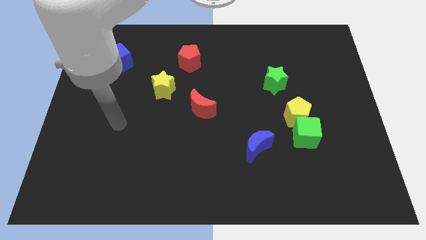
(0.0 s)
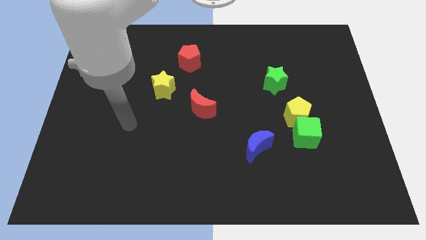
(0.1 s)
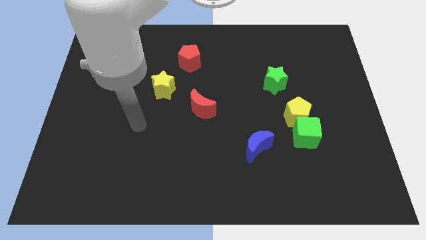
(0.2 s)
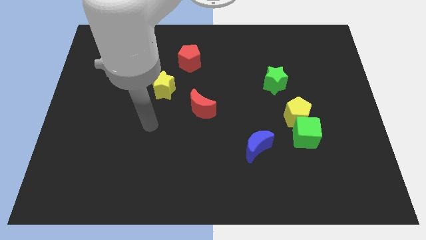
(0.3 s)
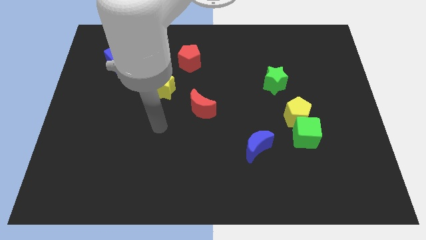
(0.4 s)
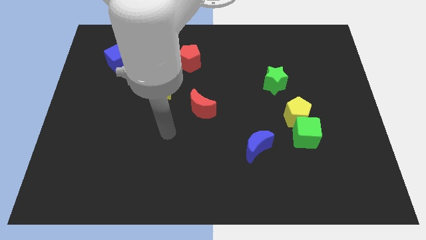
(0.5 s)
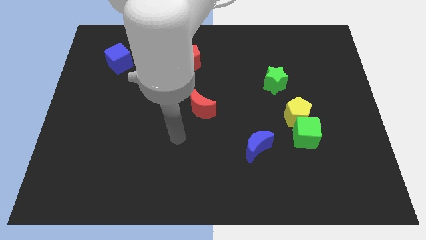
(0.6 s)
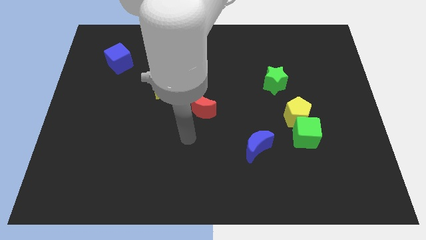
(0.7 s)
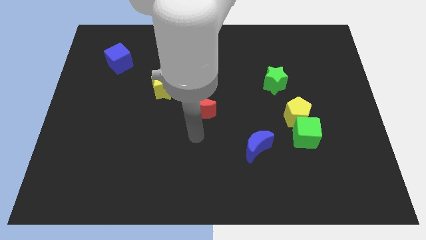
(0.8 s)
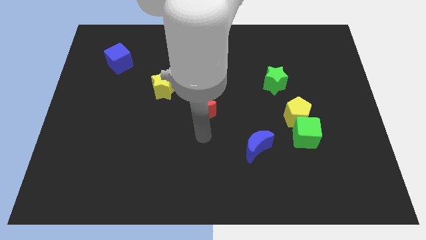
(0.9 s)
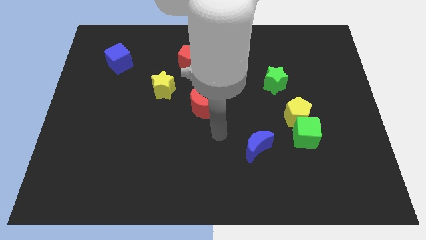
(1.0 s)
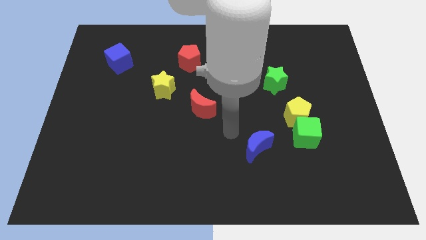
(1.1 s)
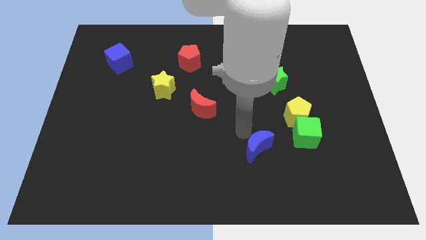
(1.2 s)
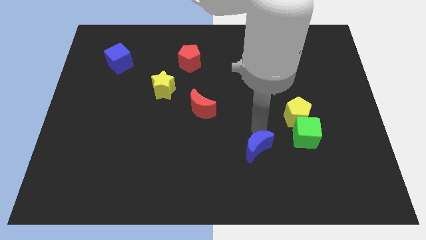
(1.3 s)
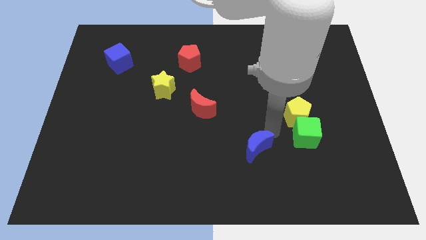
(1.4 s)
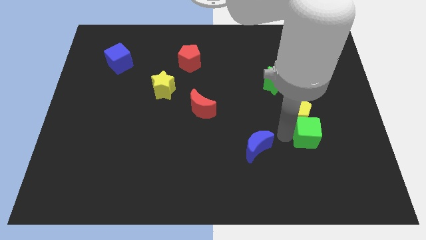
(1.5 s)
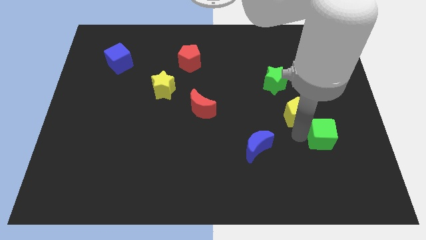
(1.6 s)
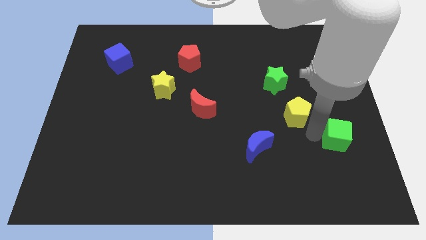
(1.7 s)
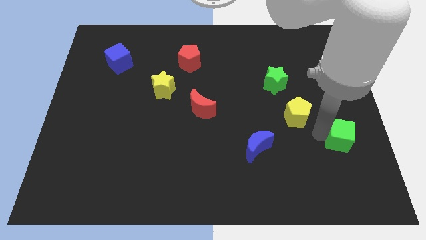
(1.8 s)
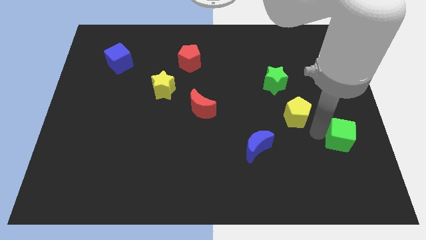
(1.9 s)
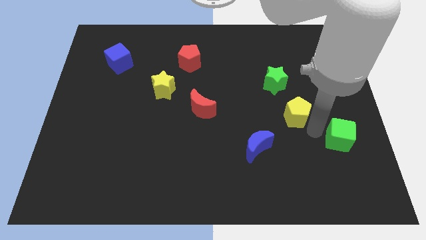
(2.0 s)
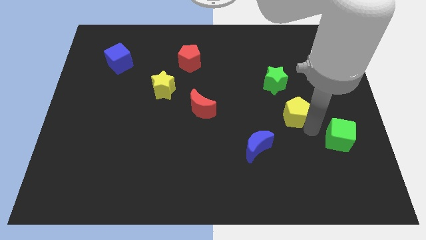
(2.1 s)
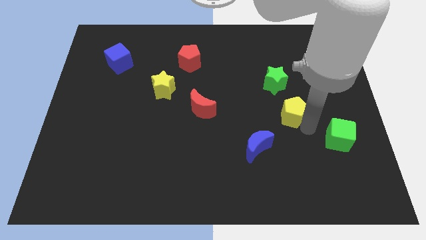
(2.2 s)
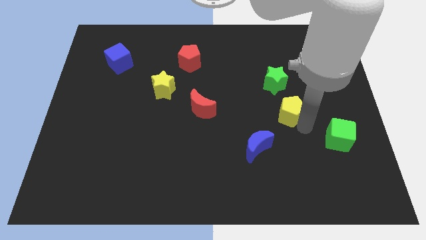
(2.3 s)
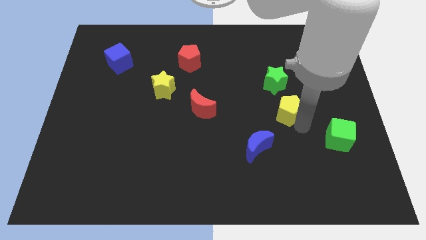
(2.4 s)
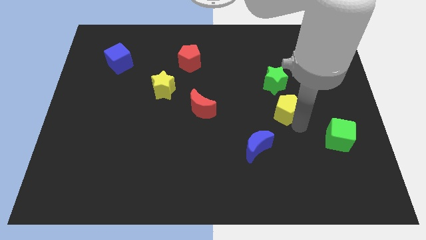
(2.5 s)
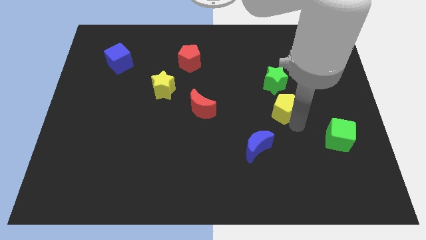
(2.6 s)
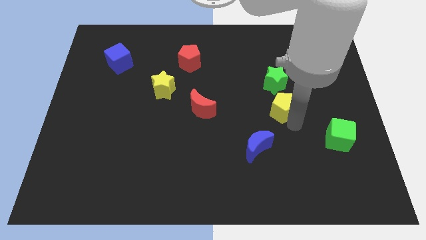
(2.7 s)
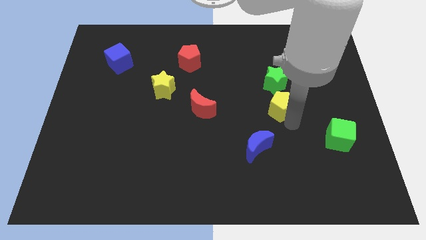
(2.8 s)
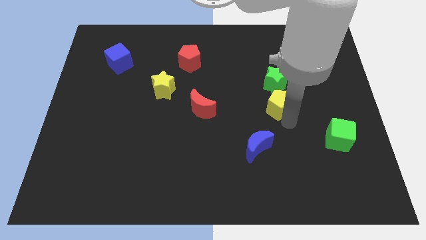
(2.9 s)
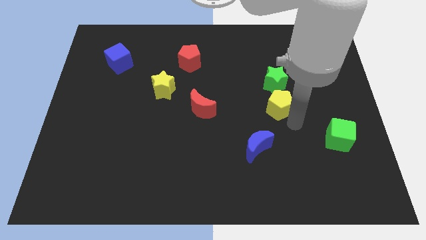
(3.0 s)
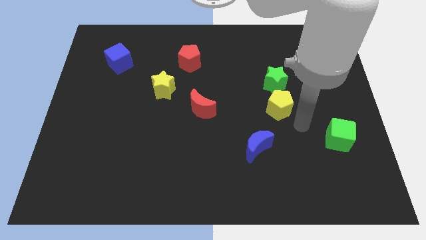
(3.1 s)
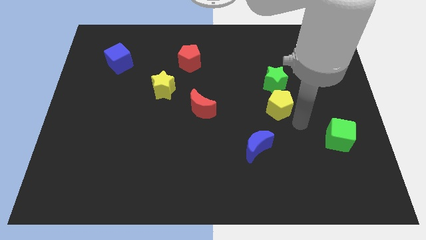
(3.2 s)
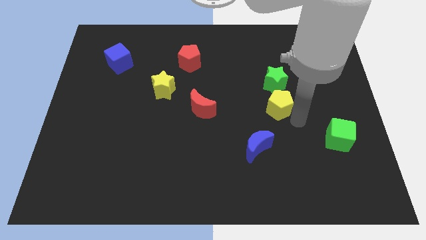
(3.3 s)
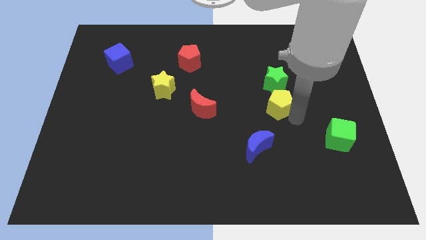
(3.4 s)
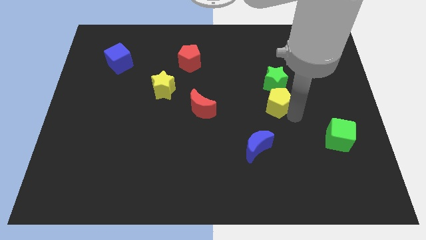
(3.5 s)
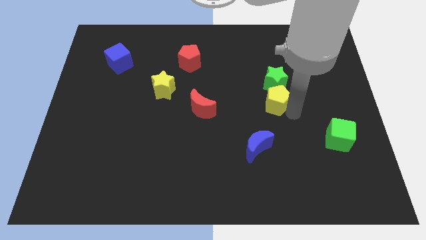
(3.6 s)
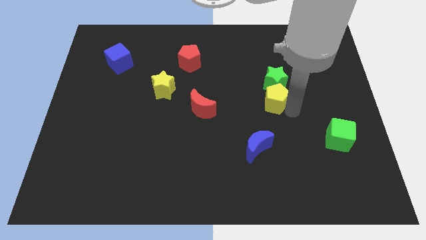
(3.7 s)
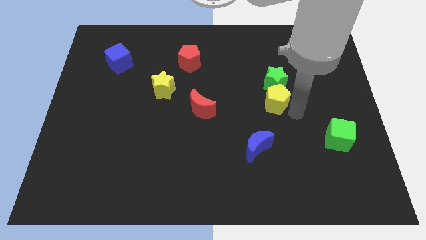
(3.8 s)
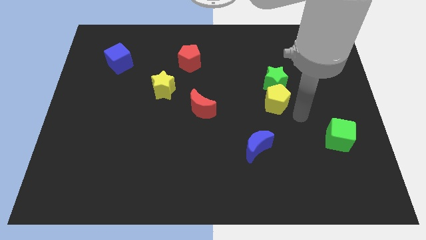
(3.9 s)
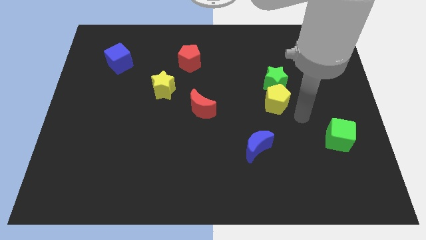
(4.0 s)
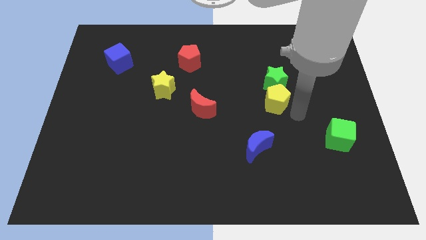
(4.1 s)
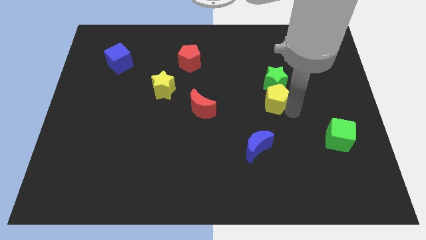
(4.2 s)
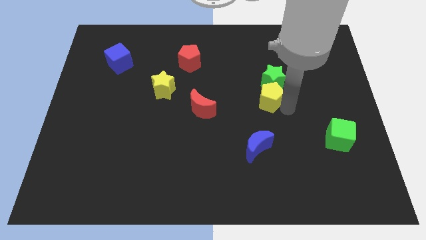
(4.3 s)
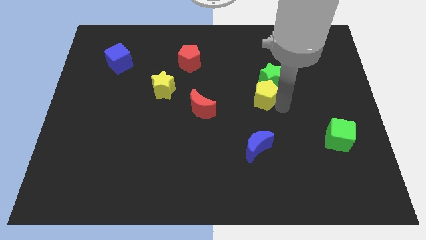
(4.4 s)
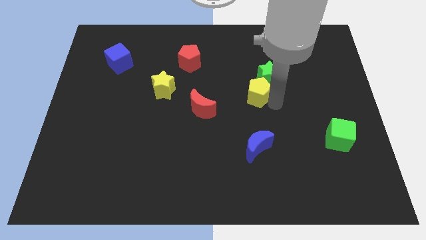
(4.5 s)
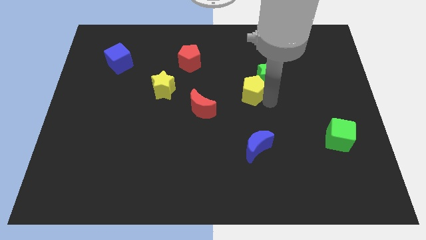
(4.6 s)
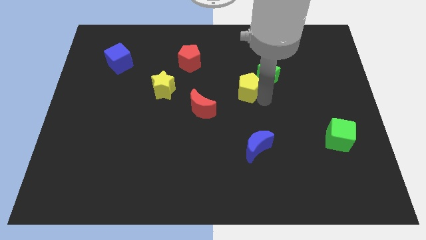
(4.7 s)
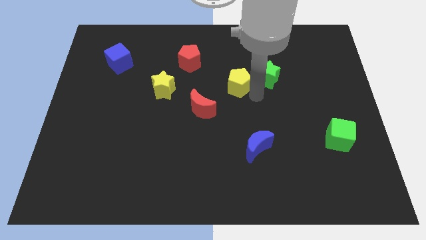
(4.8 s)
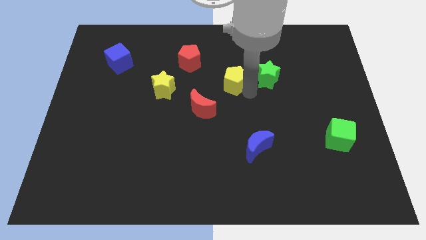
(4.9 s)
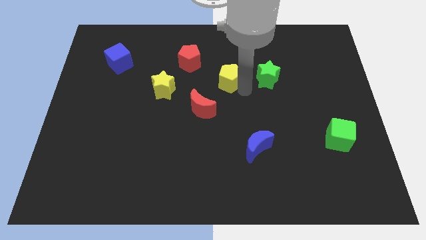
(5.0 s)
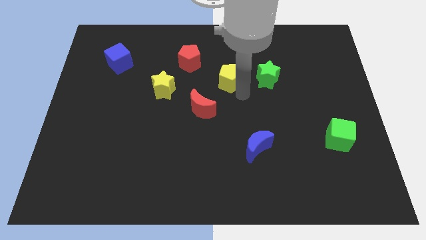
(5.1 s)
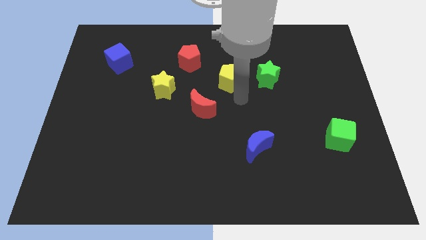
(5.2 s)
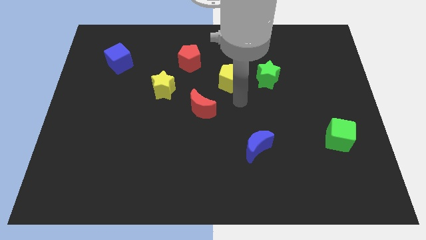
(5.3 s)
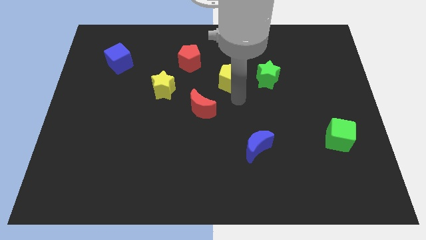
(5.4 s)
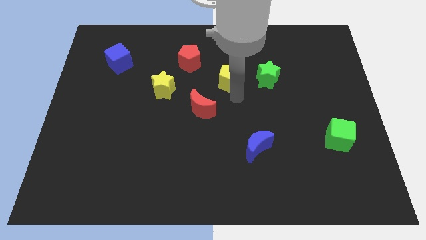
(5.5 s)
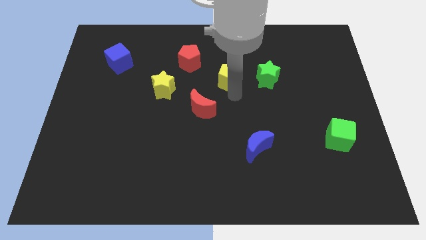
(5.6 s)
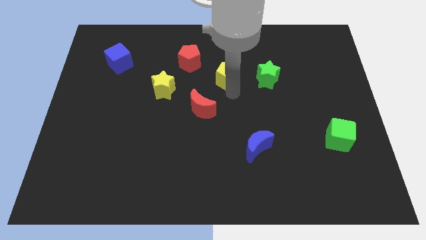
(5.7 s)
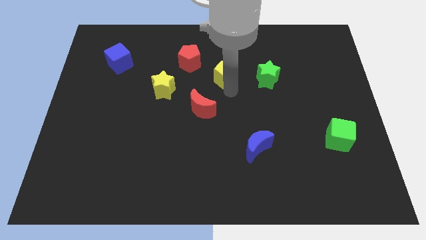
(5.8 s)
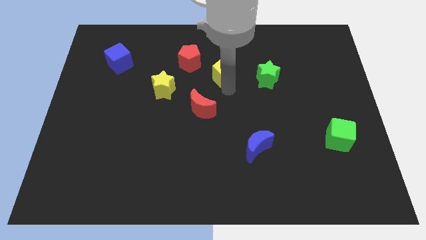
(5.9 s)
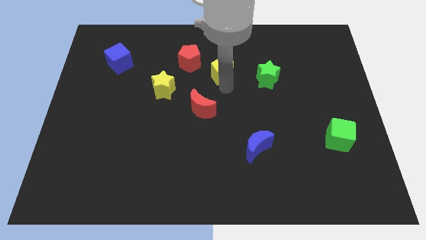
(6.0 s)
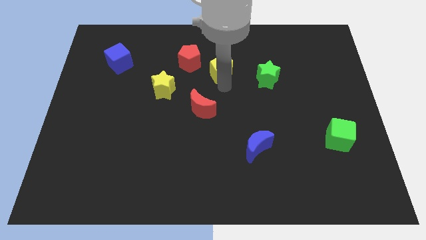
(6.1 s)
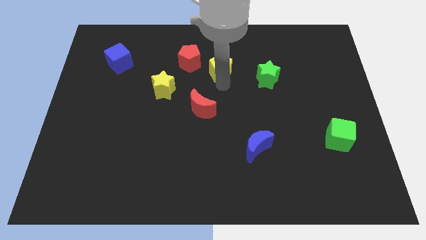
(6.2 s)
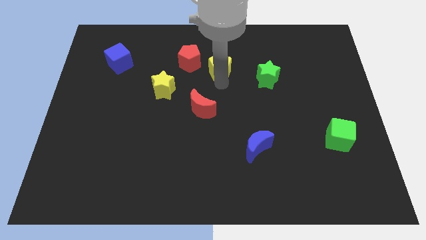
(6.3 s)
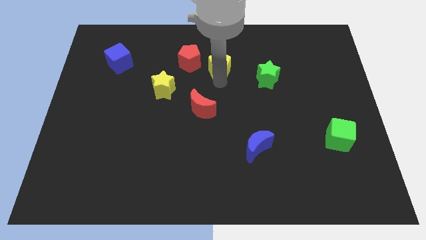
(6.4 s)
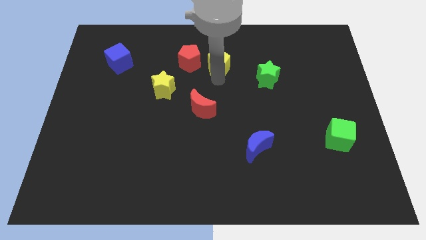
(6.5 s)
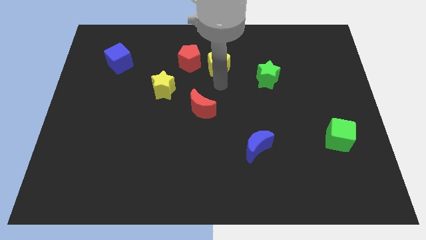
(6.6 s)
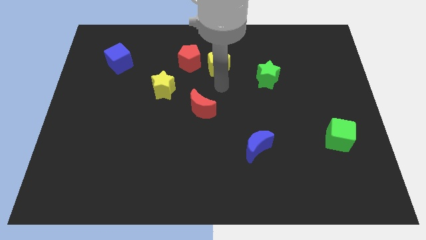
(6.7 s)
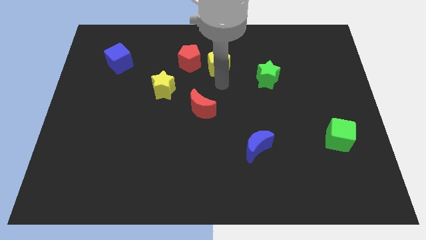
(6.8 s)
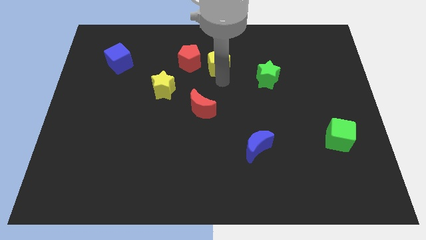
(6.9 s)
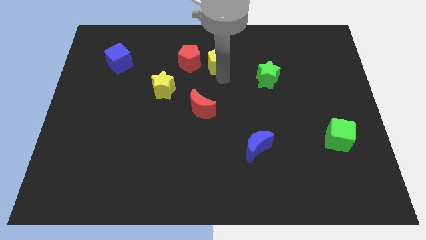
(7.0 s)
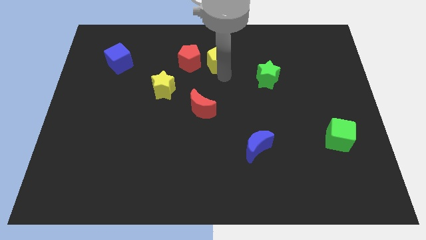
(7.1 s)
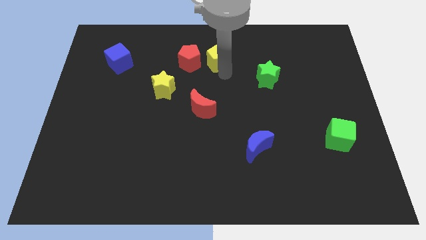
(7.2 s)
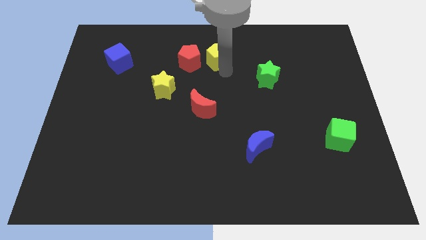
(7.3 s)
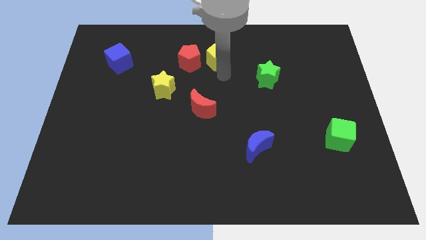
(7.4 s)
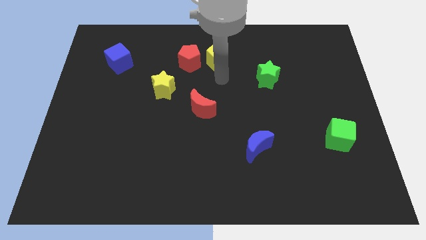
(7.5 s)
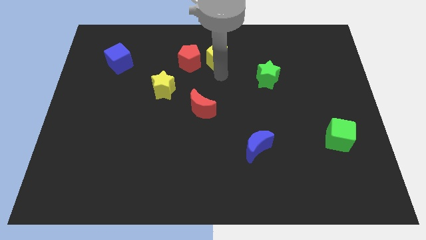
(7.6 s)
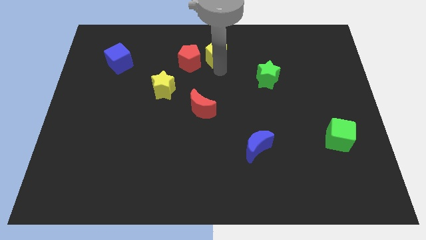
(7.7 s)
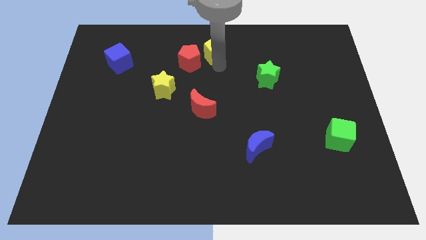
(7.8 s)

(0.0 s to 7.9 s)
push the yellow pentagon to the towards your base
